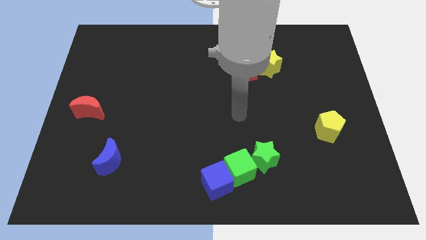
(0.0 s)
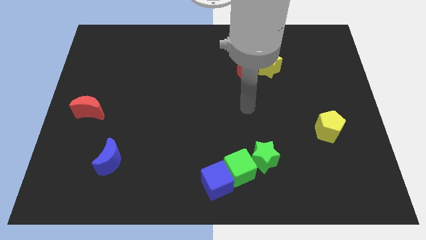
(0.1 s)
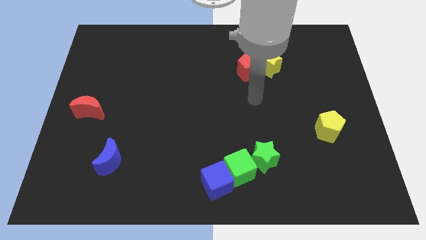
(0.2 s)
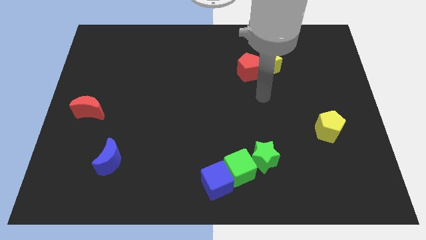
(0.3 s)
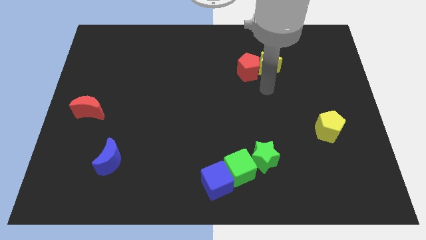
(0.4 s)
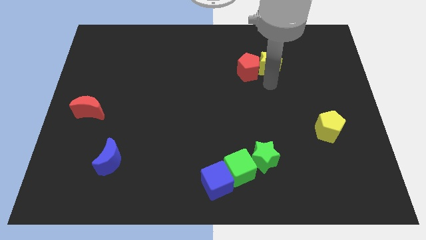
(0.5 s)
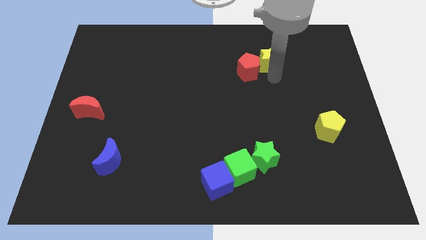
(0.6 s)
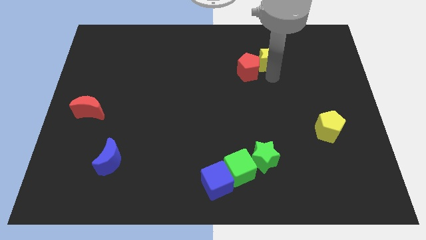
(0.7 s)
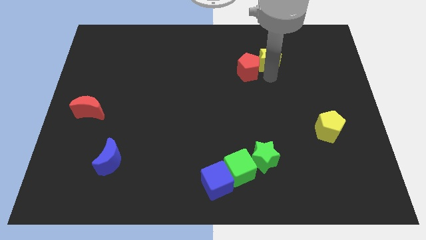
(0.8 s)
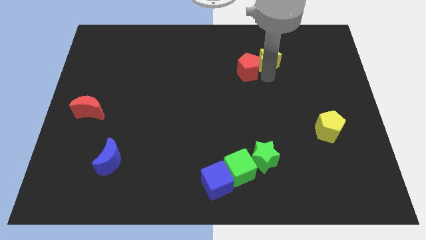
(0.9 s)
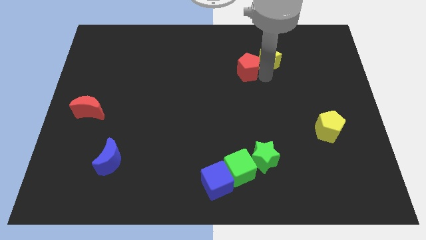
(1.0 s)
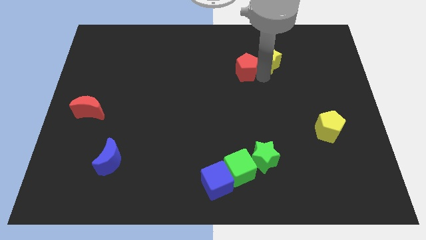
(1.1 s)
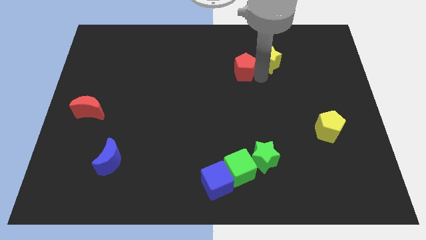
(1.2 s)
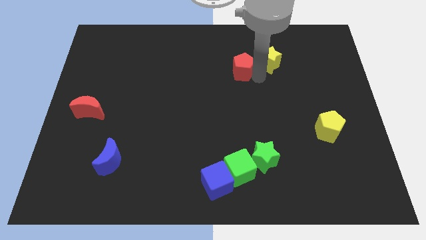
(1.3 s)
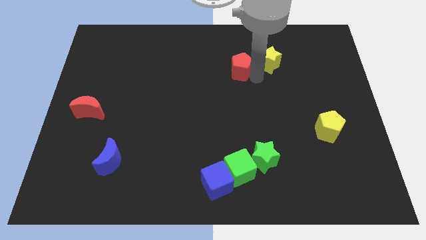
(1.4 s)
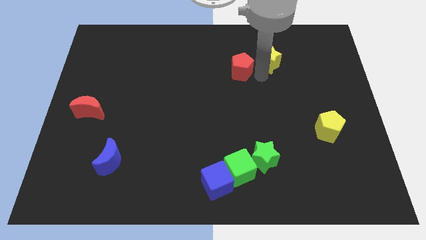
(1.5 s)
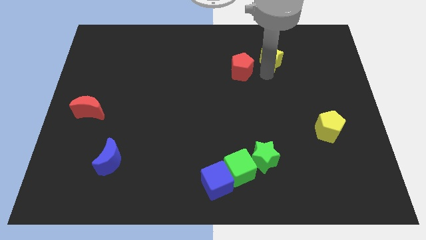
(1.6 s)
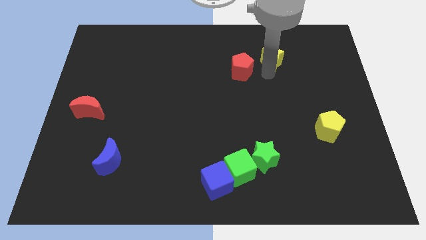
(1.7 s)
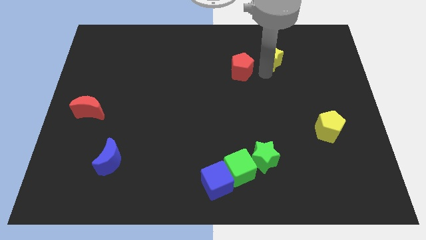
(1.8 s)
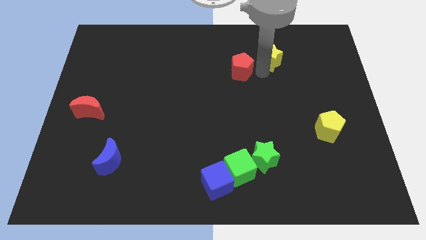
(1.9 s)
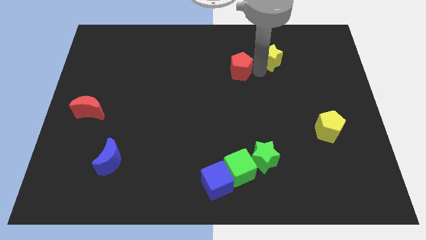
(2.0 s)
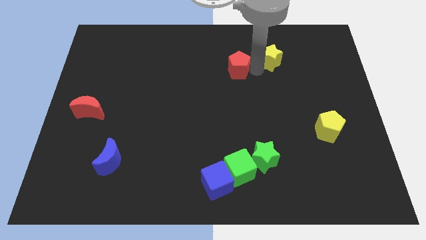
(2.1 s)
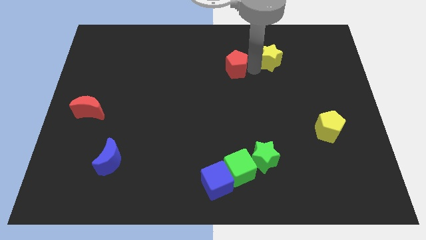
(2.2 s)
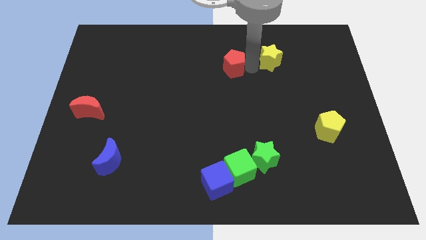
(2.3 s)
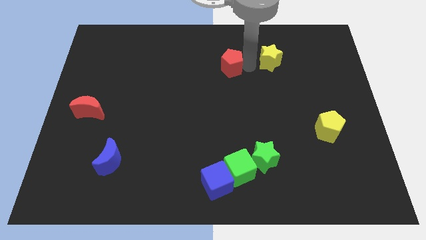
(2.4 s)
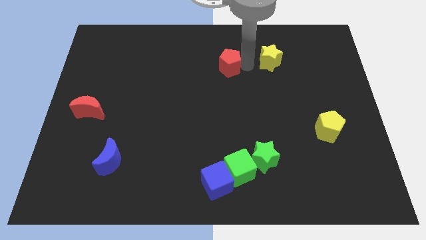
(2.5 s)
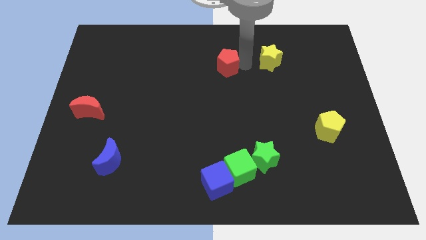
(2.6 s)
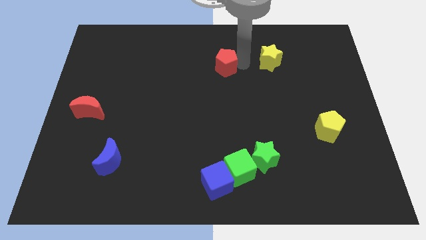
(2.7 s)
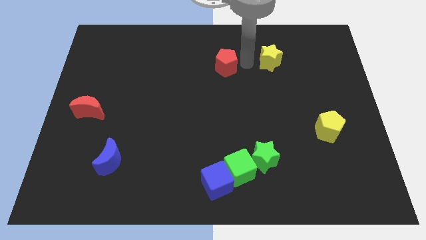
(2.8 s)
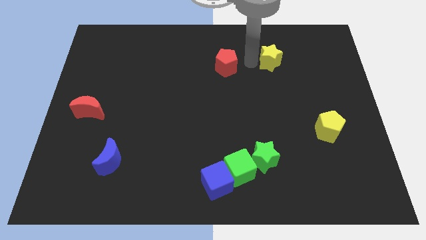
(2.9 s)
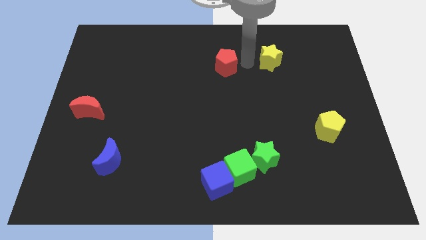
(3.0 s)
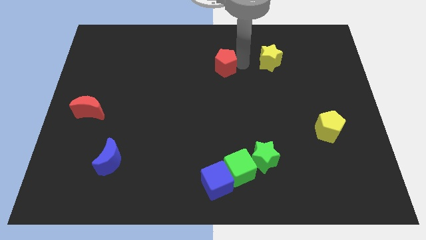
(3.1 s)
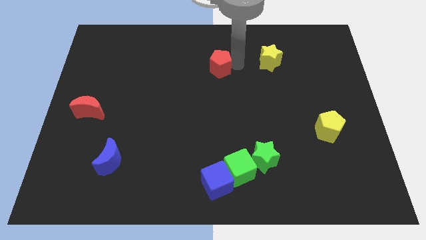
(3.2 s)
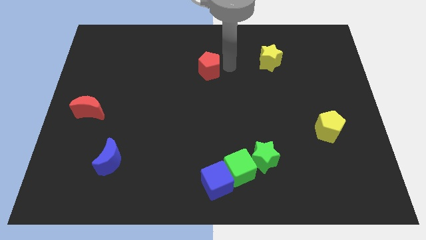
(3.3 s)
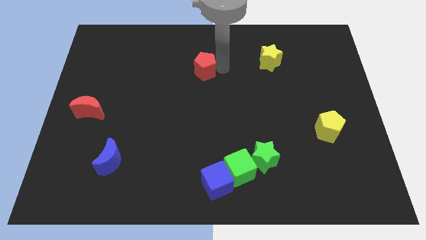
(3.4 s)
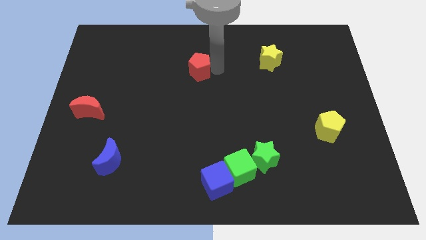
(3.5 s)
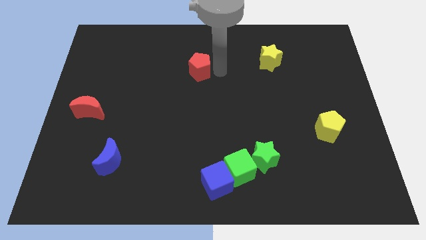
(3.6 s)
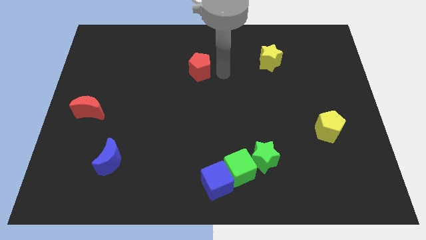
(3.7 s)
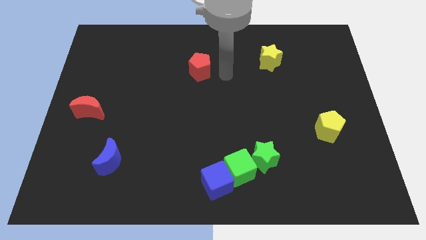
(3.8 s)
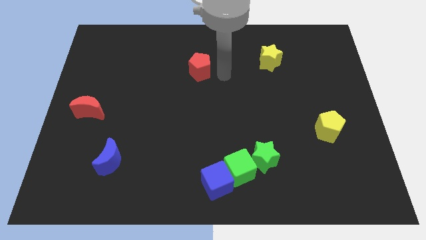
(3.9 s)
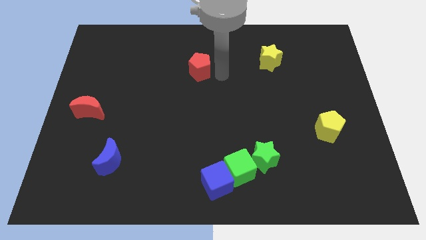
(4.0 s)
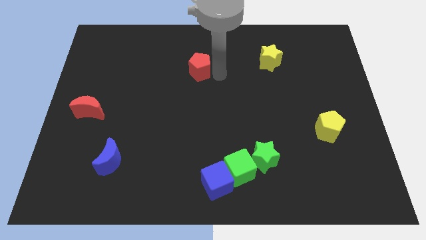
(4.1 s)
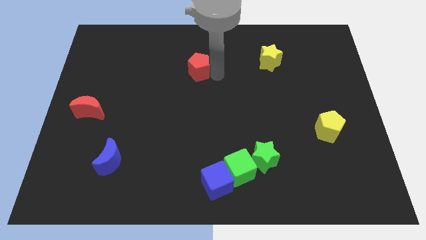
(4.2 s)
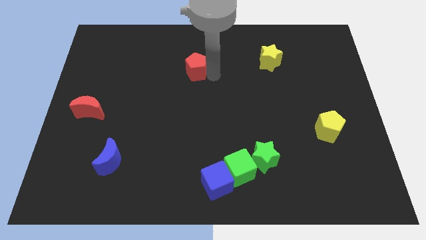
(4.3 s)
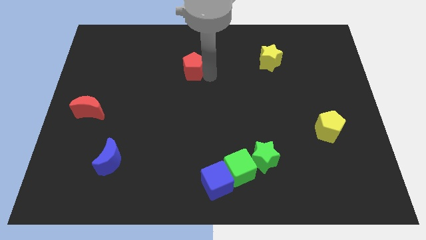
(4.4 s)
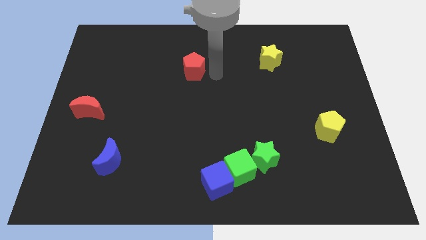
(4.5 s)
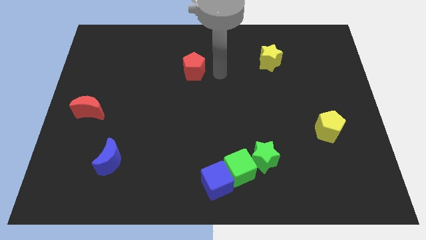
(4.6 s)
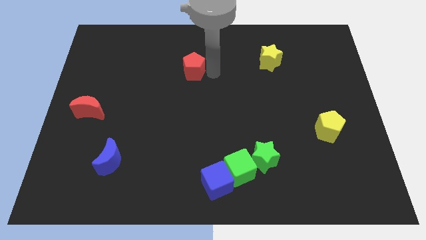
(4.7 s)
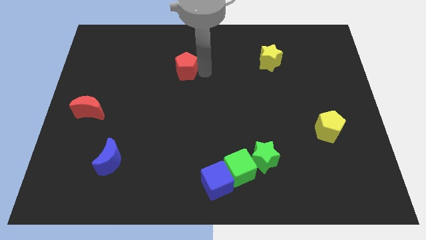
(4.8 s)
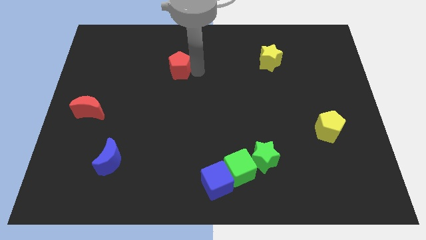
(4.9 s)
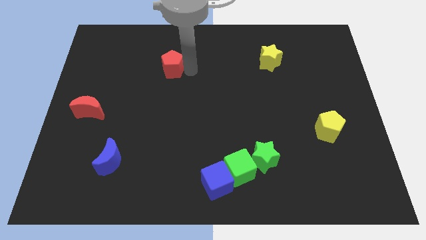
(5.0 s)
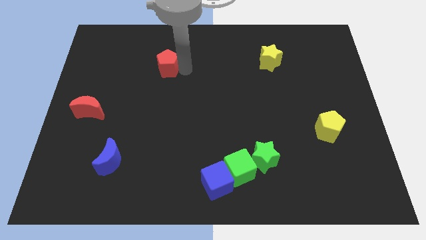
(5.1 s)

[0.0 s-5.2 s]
slide the red pentagon to the left

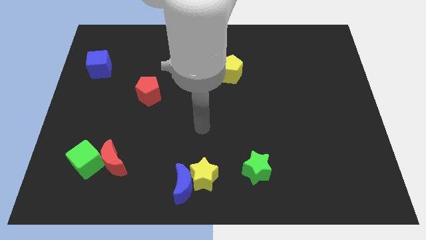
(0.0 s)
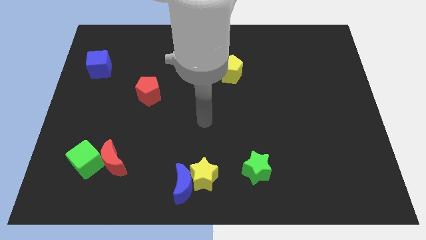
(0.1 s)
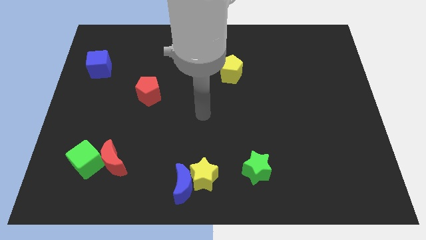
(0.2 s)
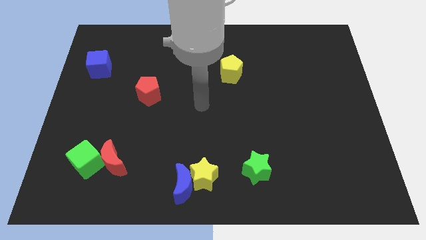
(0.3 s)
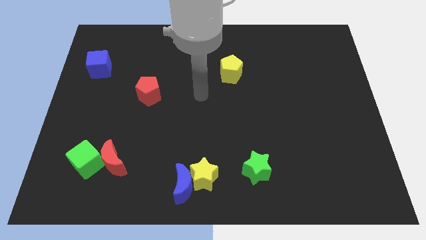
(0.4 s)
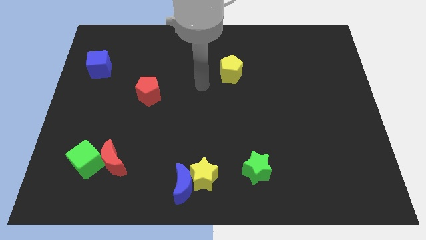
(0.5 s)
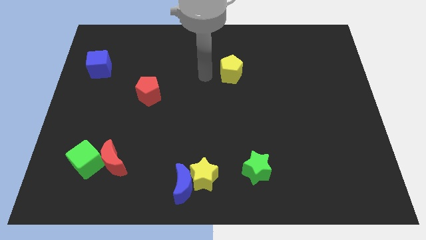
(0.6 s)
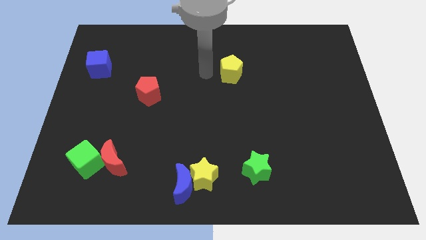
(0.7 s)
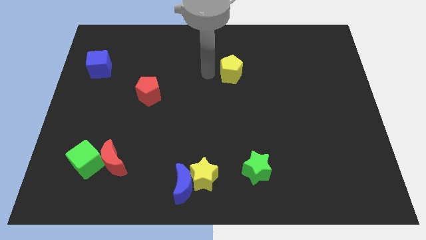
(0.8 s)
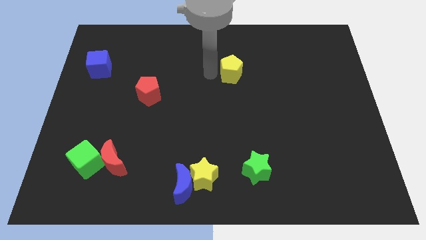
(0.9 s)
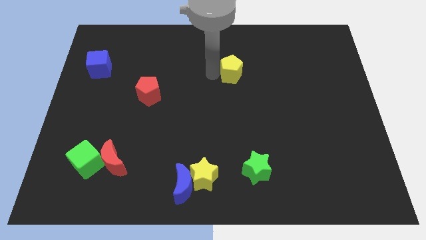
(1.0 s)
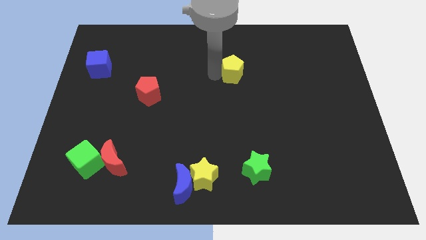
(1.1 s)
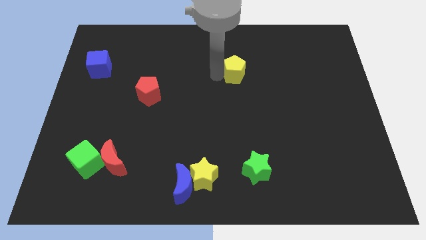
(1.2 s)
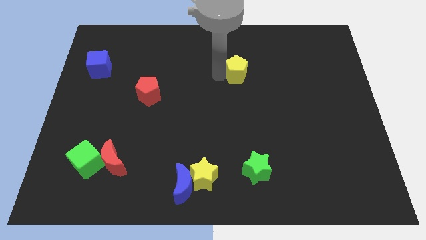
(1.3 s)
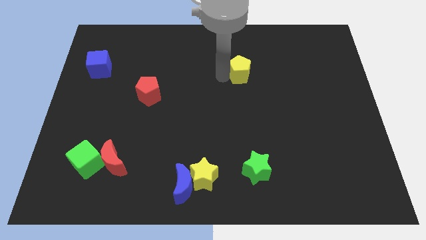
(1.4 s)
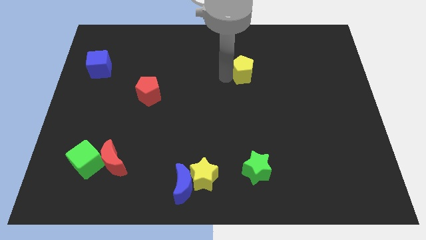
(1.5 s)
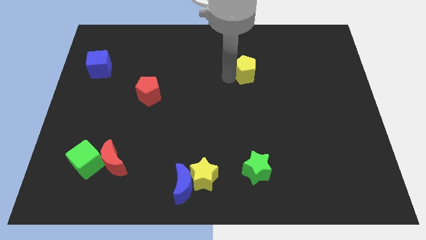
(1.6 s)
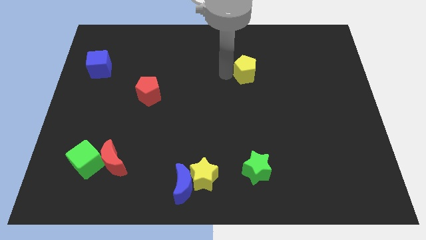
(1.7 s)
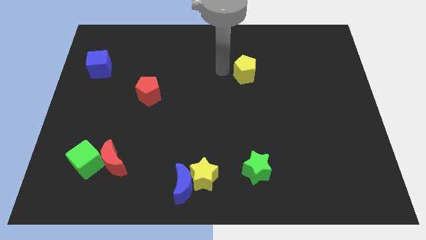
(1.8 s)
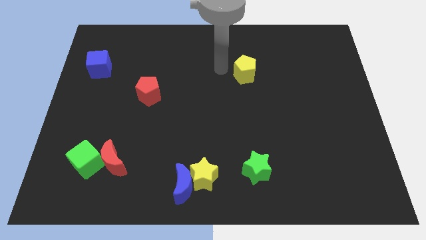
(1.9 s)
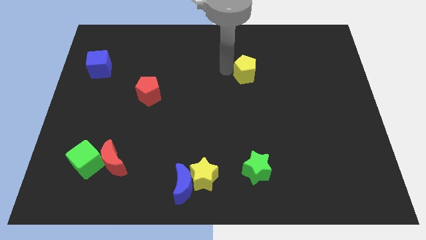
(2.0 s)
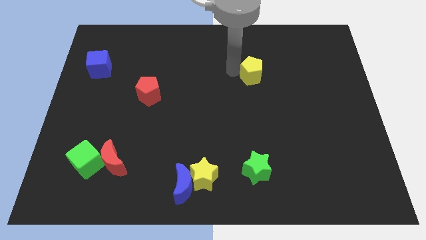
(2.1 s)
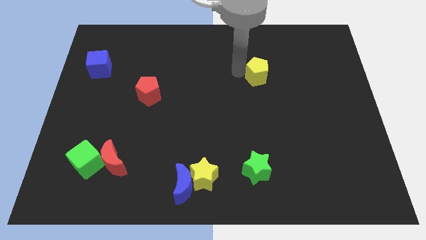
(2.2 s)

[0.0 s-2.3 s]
push the yellow pentagon slightly to the right
